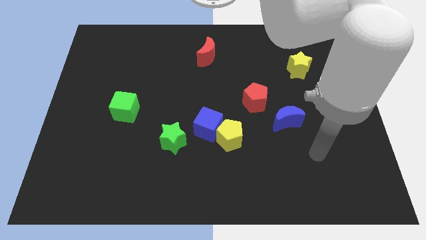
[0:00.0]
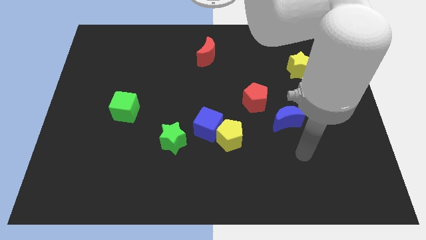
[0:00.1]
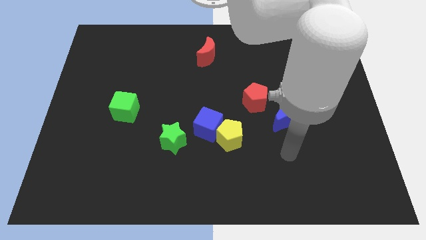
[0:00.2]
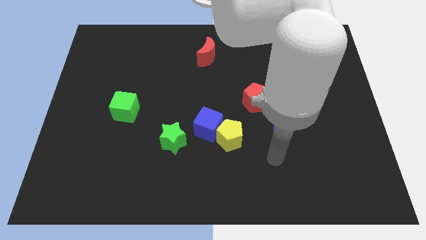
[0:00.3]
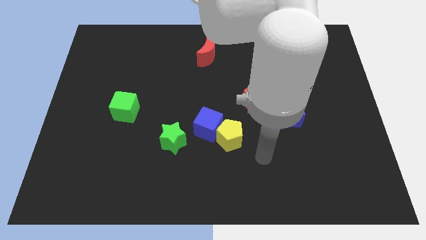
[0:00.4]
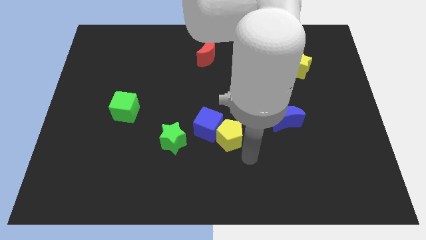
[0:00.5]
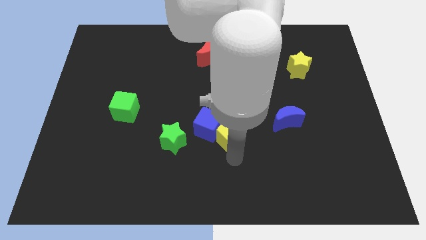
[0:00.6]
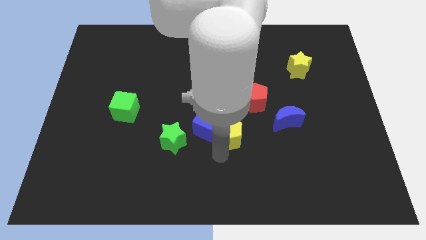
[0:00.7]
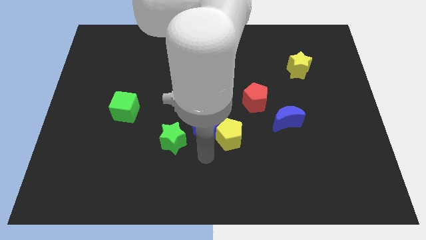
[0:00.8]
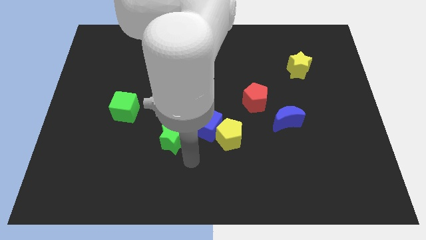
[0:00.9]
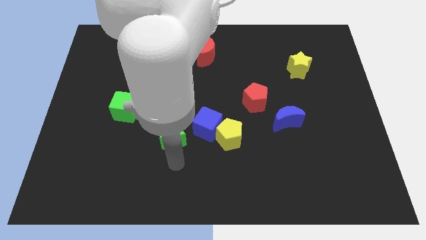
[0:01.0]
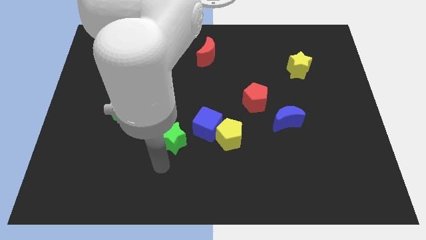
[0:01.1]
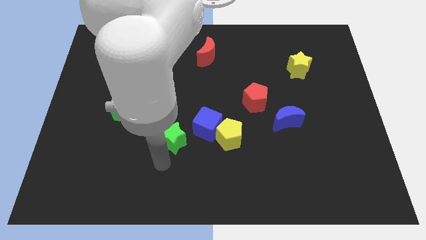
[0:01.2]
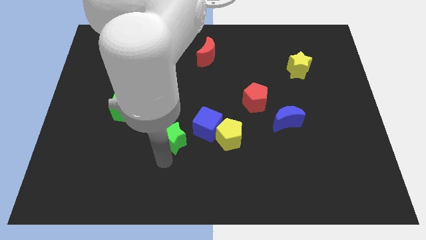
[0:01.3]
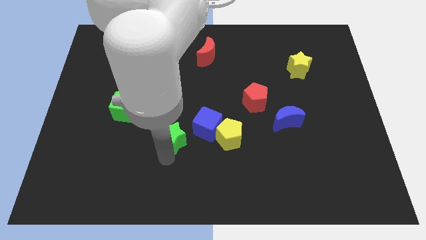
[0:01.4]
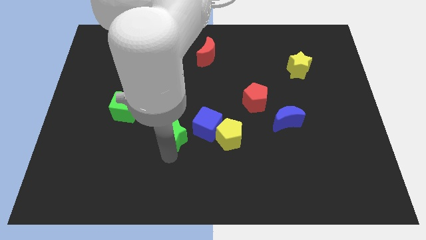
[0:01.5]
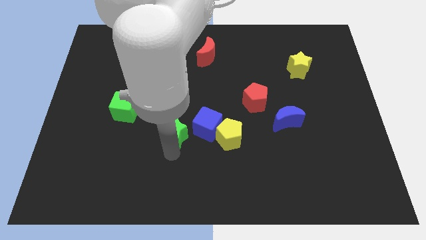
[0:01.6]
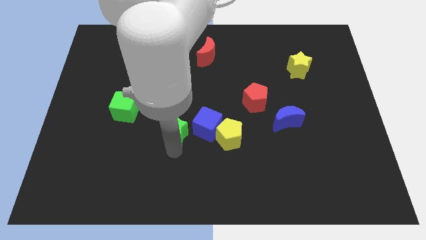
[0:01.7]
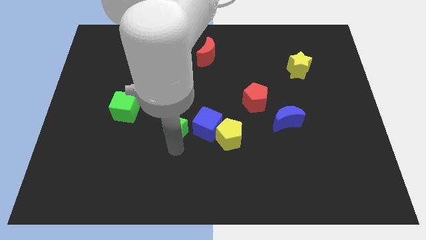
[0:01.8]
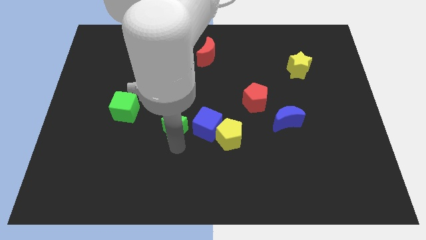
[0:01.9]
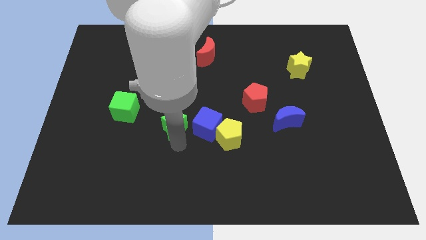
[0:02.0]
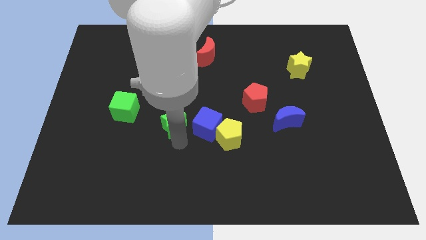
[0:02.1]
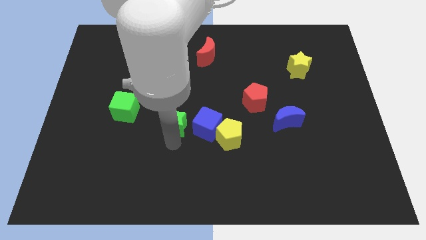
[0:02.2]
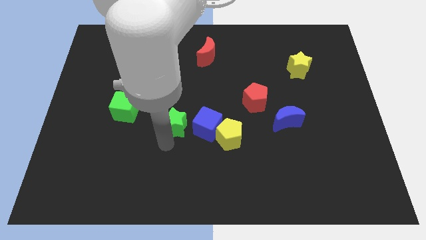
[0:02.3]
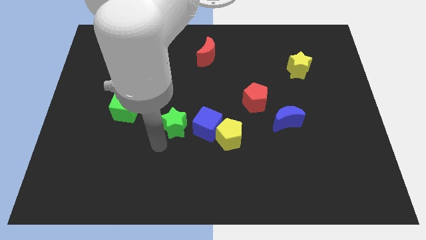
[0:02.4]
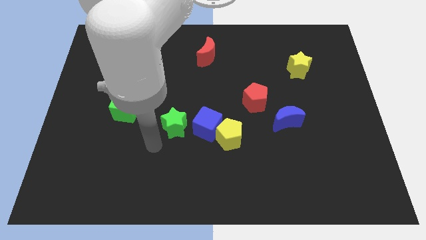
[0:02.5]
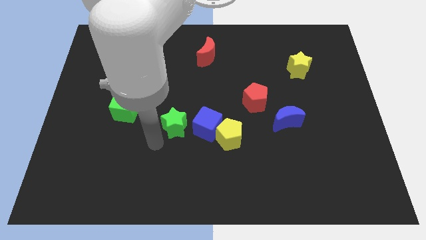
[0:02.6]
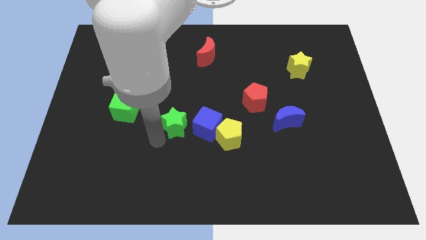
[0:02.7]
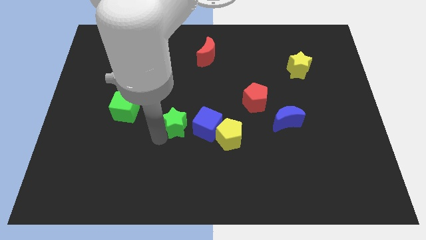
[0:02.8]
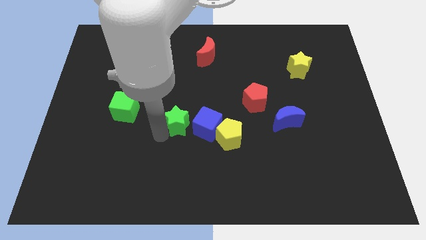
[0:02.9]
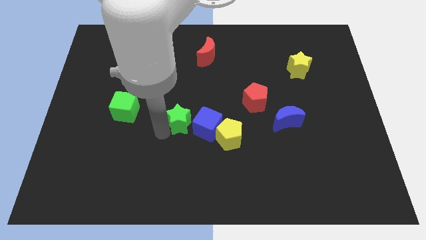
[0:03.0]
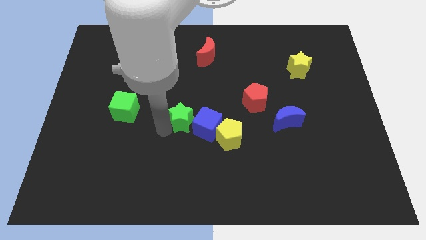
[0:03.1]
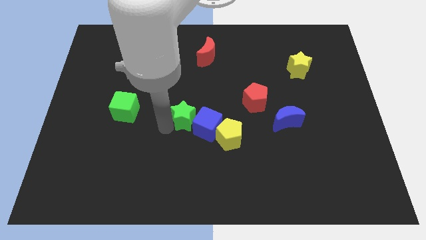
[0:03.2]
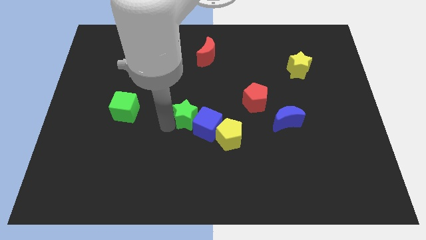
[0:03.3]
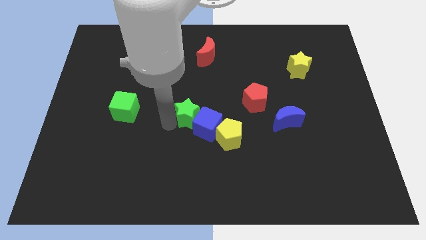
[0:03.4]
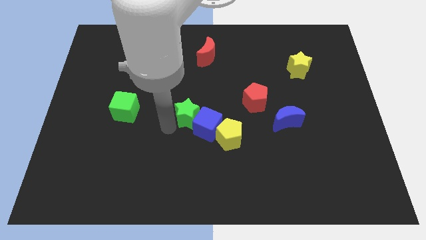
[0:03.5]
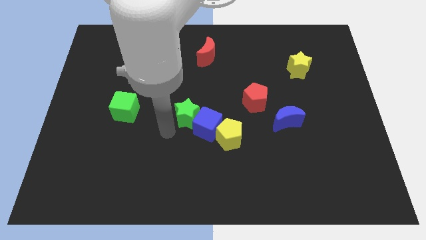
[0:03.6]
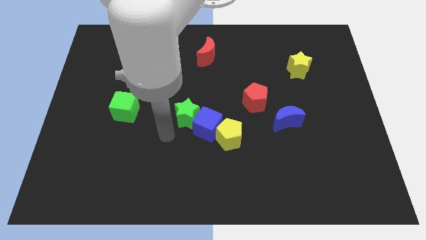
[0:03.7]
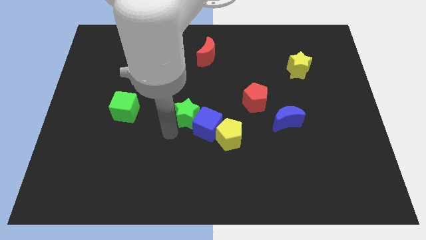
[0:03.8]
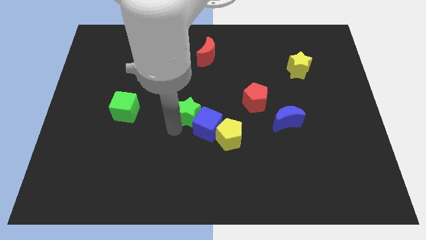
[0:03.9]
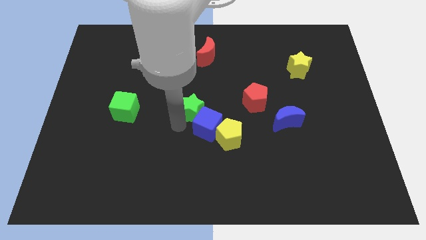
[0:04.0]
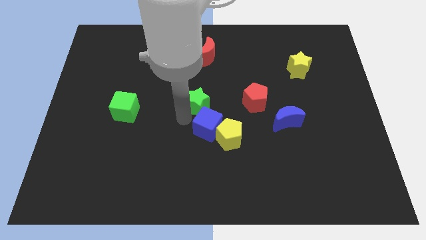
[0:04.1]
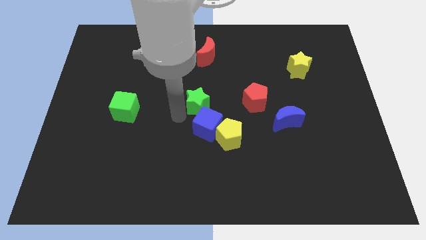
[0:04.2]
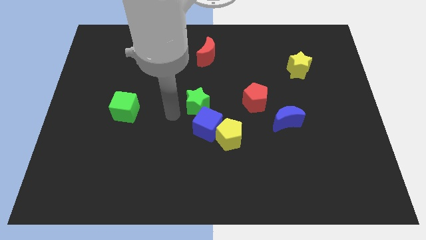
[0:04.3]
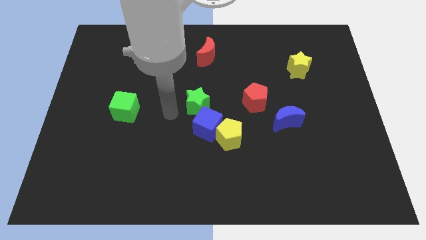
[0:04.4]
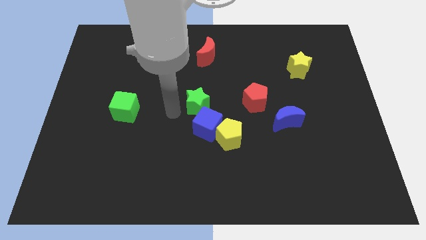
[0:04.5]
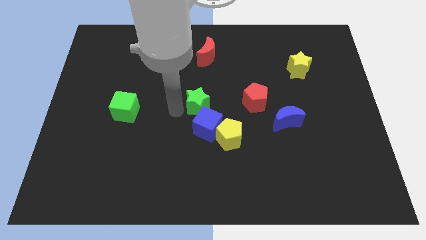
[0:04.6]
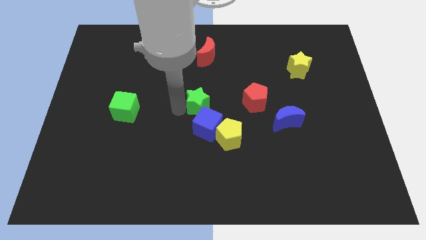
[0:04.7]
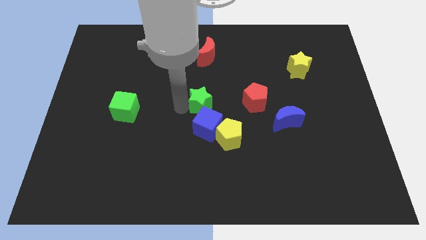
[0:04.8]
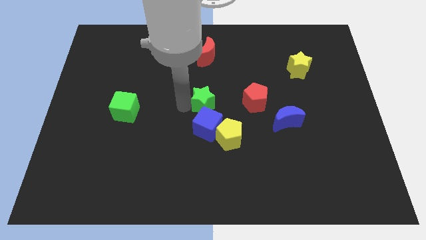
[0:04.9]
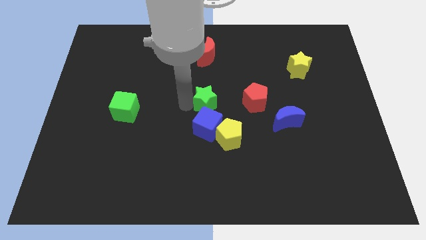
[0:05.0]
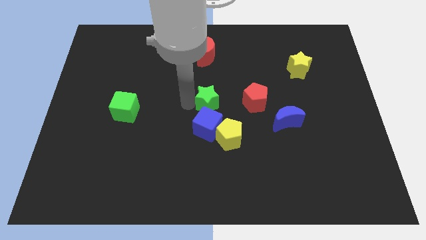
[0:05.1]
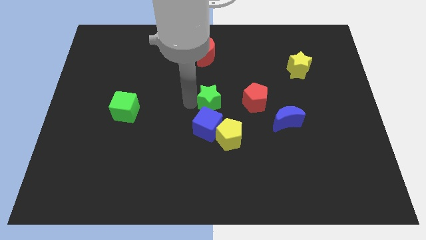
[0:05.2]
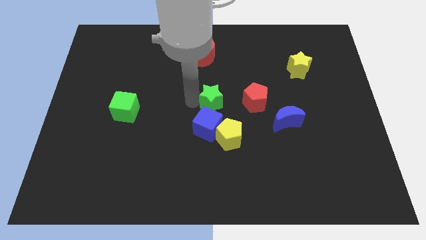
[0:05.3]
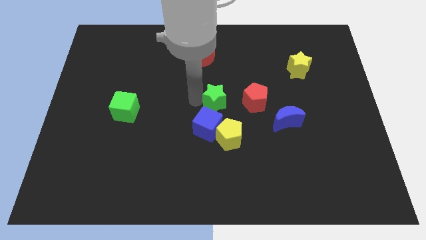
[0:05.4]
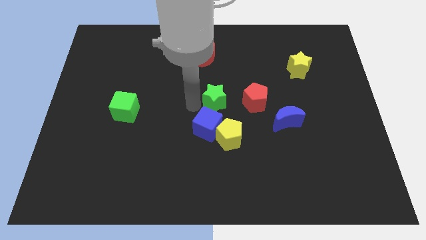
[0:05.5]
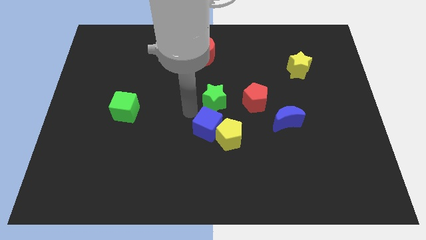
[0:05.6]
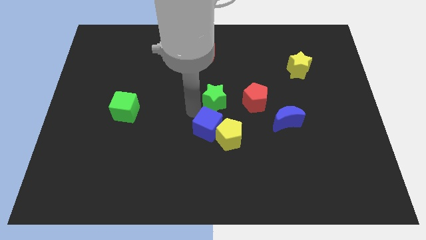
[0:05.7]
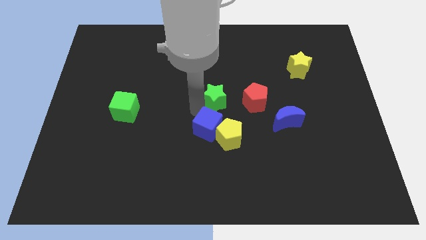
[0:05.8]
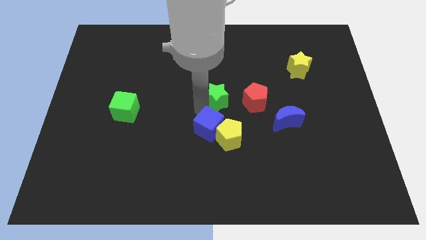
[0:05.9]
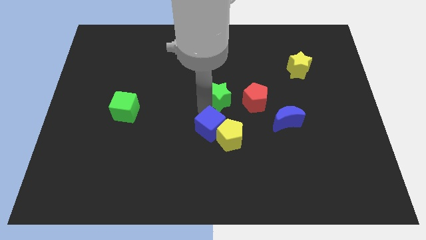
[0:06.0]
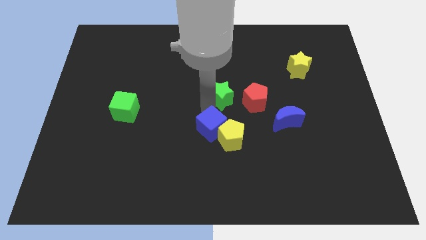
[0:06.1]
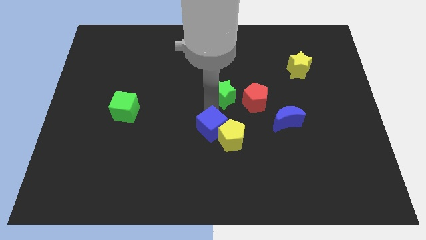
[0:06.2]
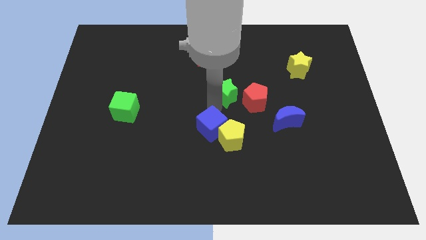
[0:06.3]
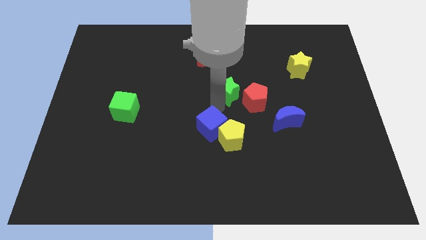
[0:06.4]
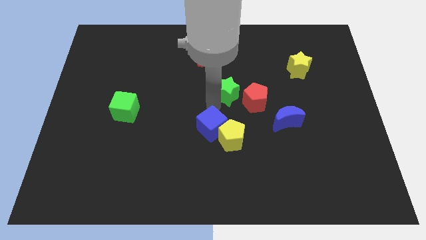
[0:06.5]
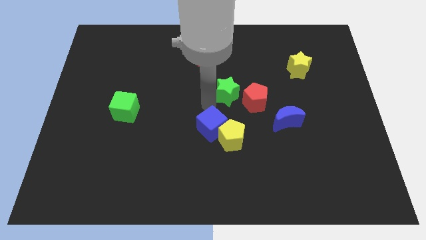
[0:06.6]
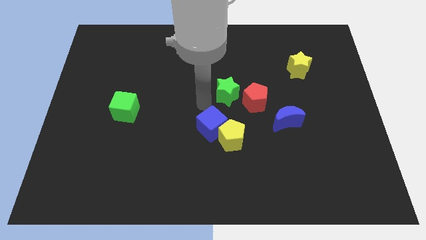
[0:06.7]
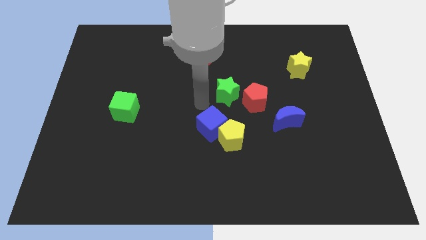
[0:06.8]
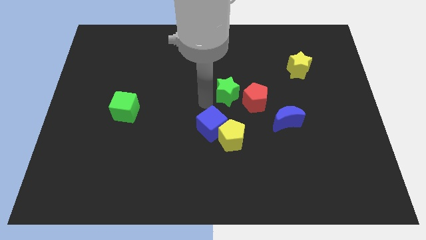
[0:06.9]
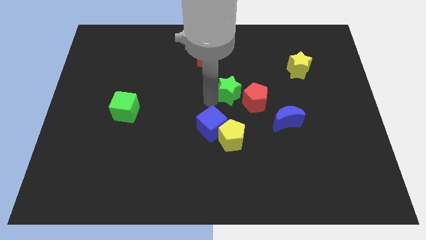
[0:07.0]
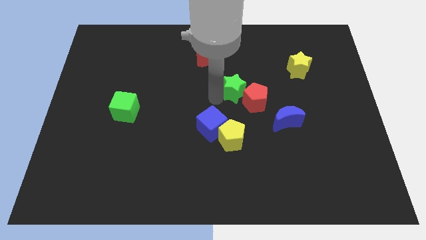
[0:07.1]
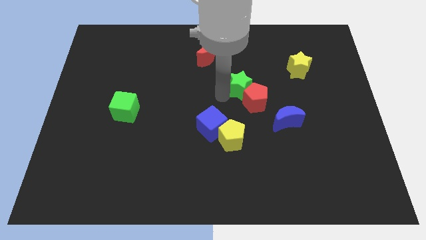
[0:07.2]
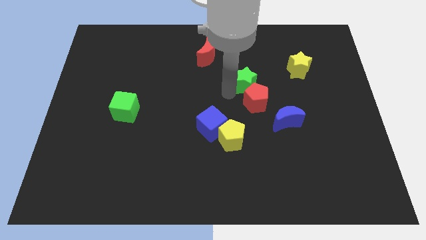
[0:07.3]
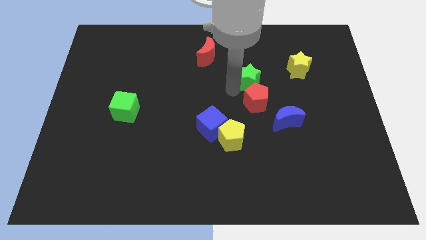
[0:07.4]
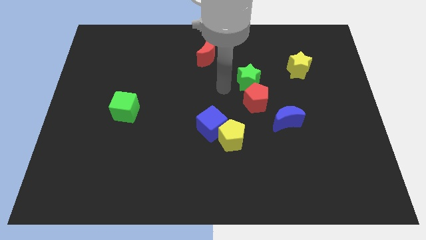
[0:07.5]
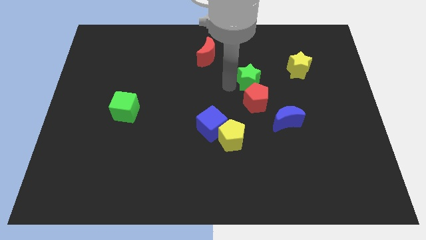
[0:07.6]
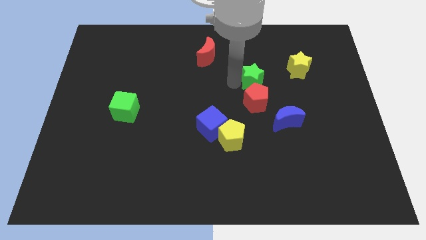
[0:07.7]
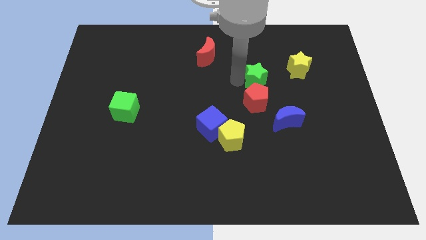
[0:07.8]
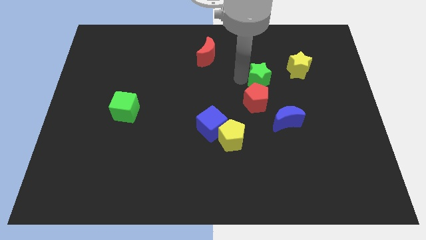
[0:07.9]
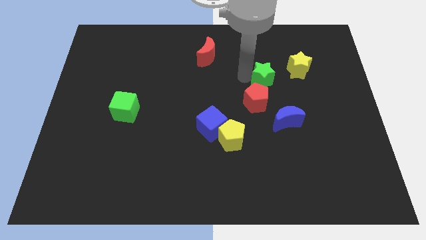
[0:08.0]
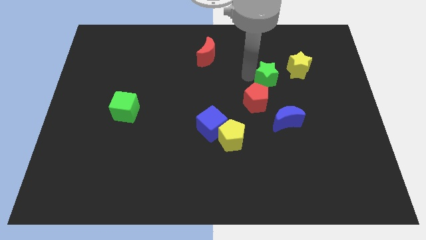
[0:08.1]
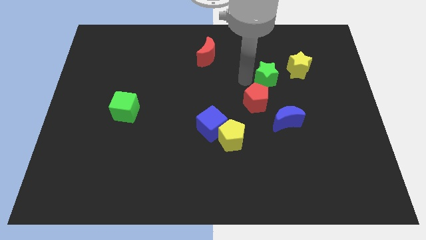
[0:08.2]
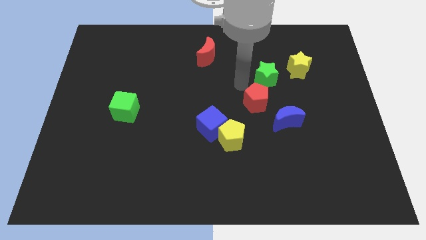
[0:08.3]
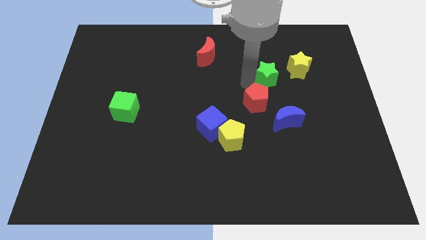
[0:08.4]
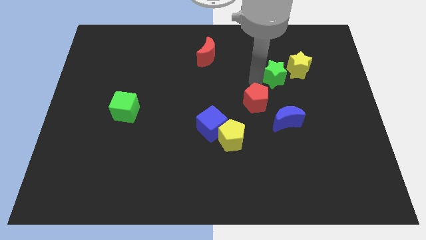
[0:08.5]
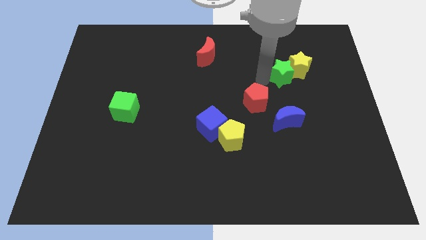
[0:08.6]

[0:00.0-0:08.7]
put the green star towards the yellow star
